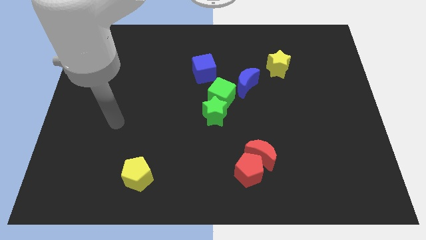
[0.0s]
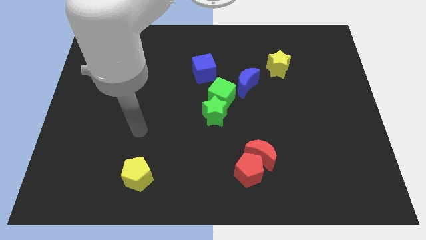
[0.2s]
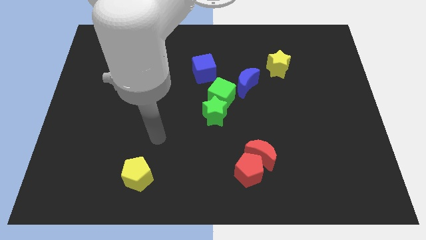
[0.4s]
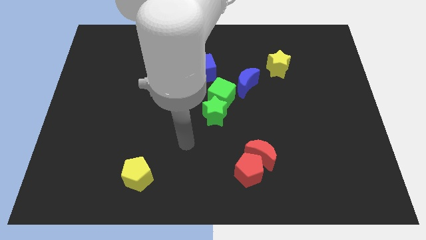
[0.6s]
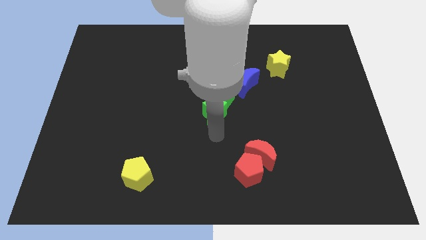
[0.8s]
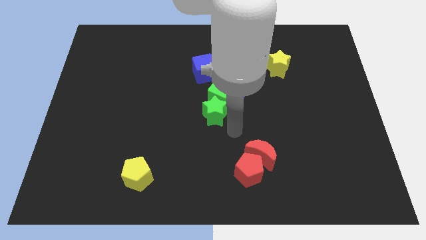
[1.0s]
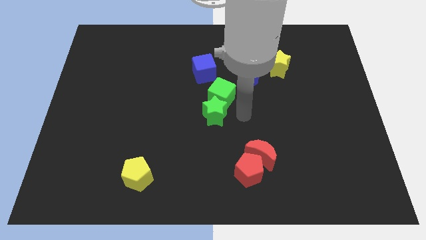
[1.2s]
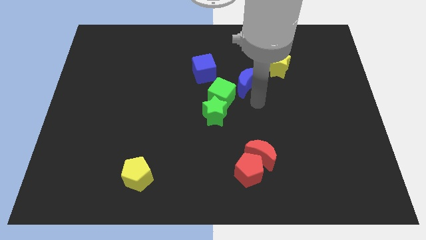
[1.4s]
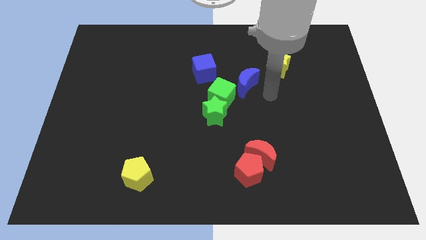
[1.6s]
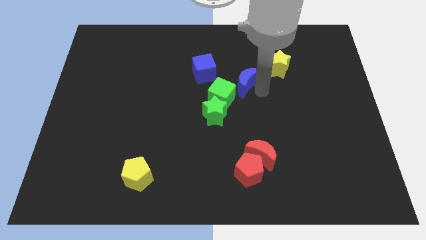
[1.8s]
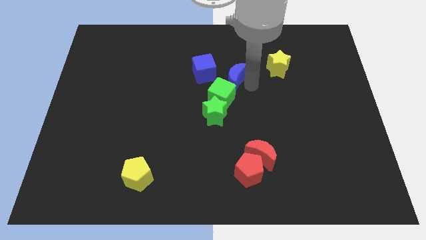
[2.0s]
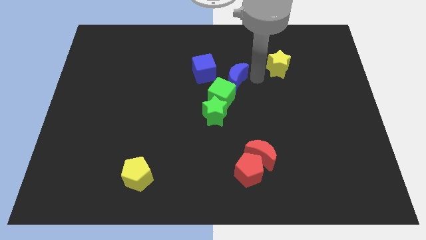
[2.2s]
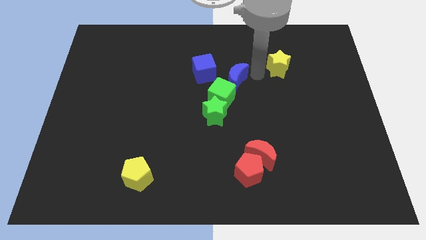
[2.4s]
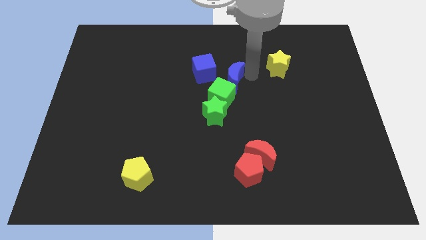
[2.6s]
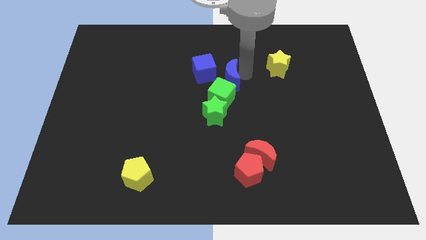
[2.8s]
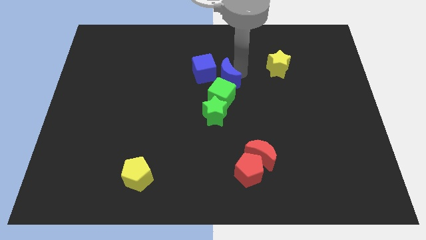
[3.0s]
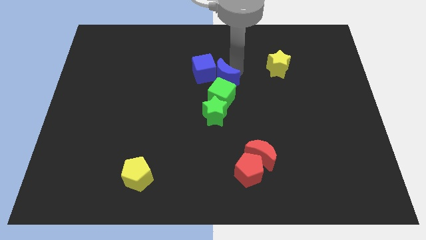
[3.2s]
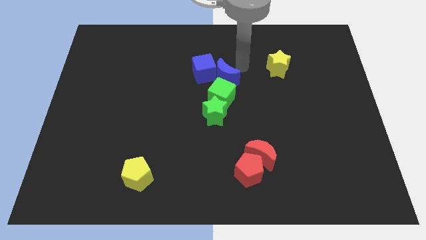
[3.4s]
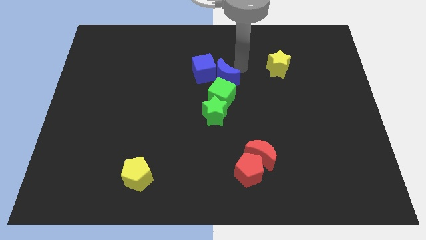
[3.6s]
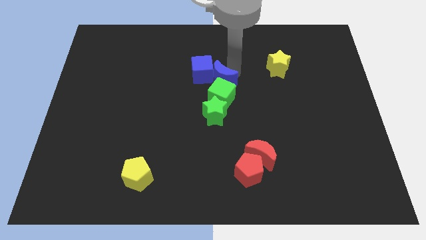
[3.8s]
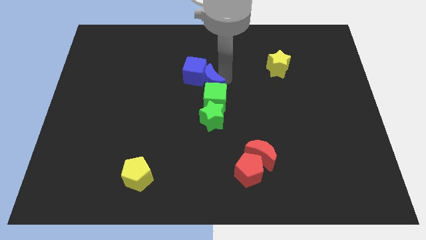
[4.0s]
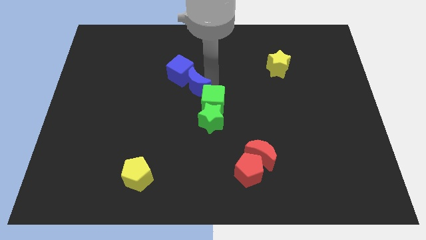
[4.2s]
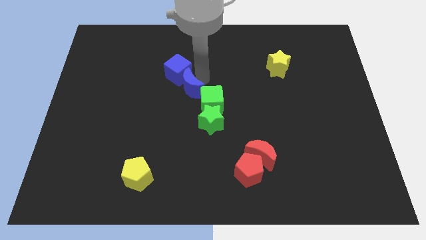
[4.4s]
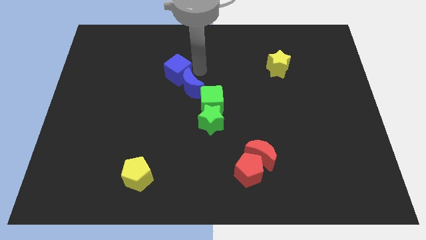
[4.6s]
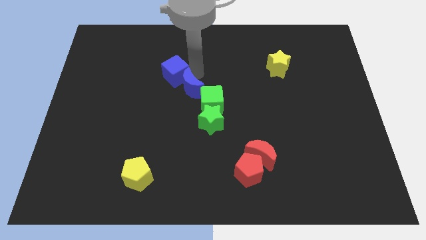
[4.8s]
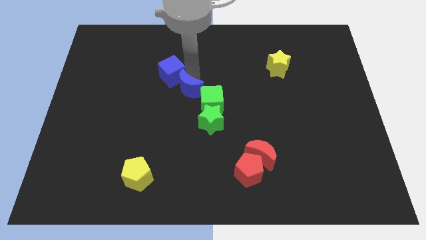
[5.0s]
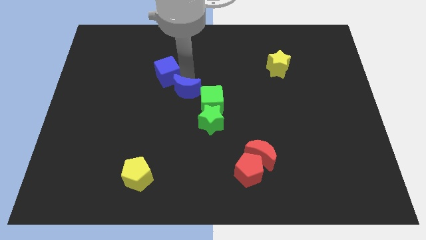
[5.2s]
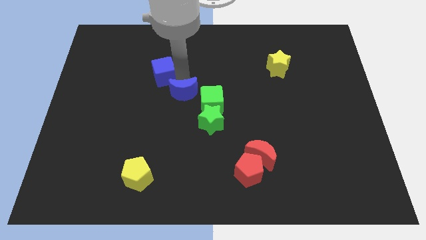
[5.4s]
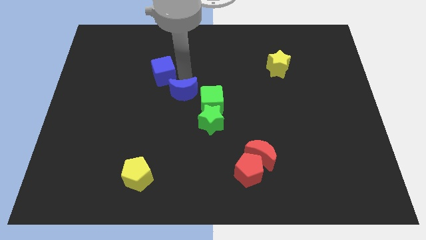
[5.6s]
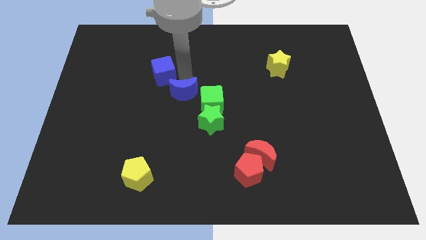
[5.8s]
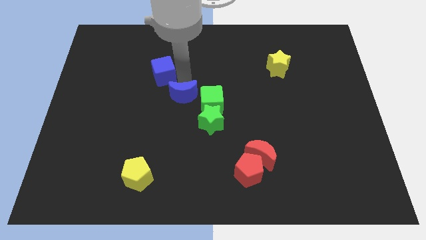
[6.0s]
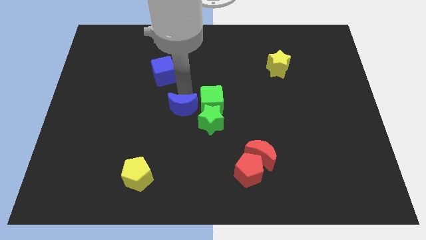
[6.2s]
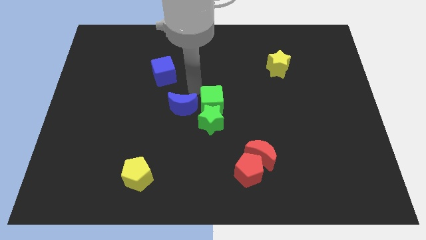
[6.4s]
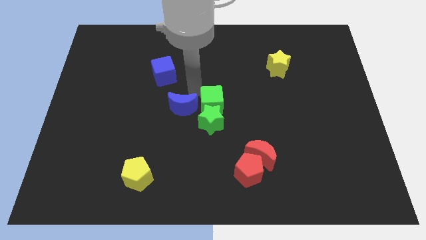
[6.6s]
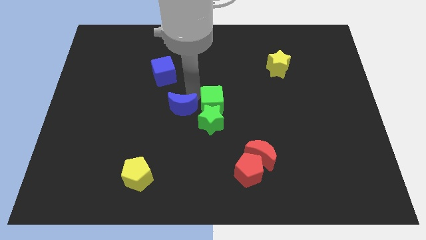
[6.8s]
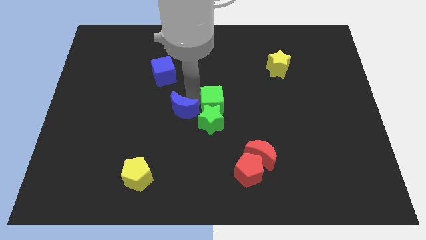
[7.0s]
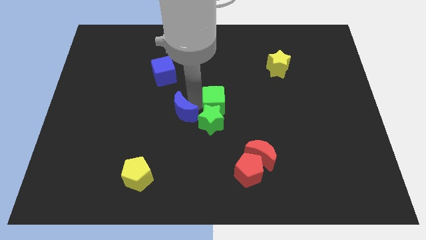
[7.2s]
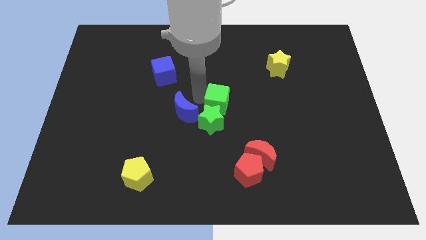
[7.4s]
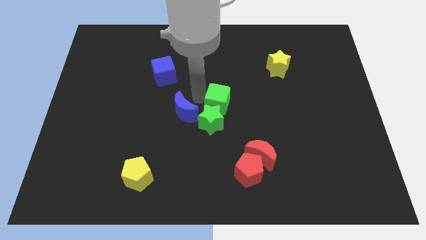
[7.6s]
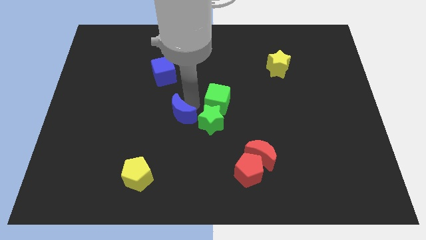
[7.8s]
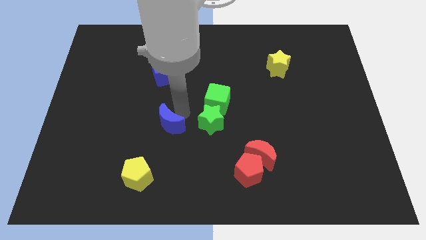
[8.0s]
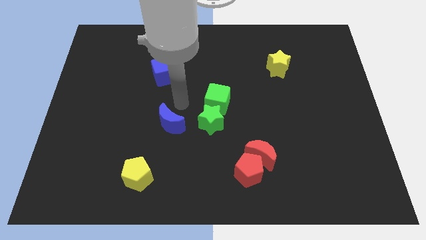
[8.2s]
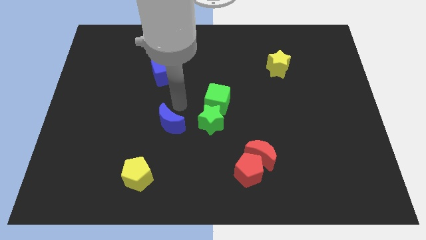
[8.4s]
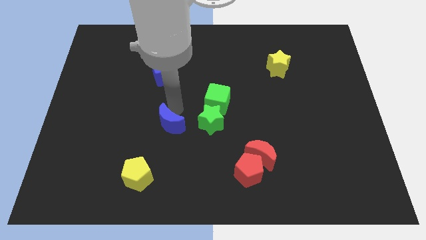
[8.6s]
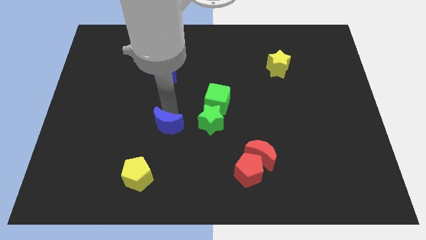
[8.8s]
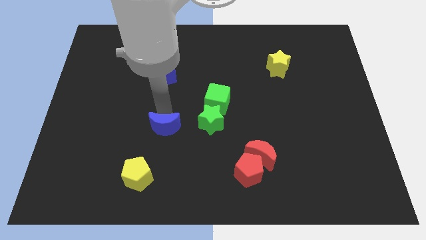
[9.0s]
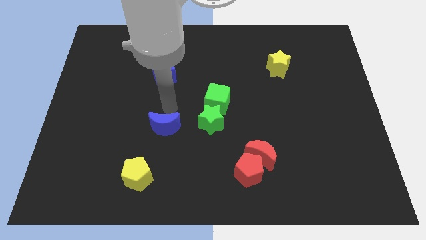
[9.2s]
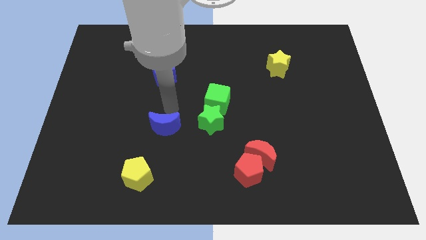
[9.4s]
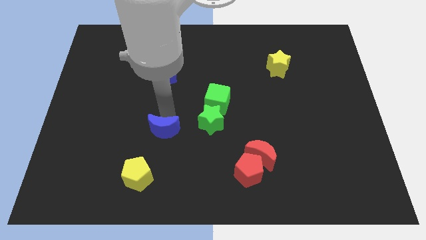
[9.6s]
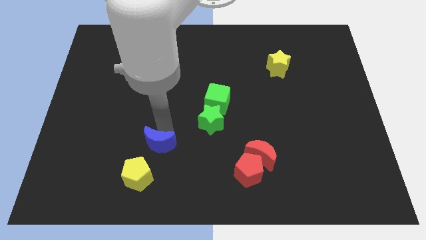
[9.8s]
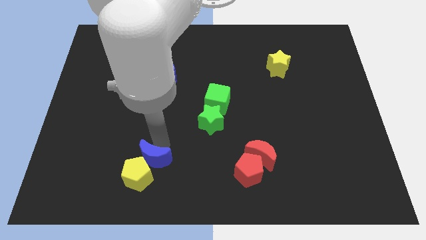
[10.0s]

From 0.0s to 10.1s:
move the blue moon next to the yellow pentagon

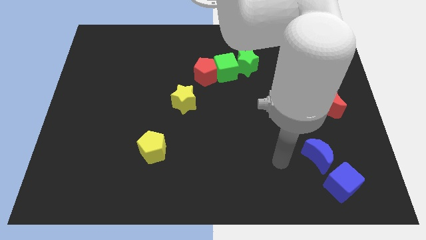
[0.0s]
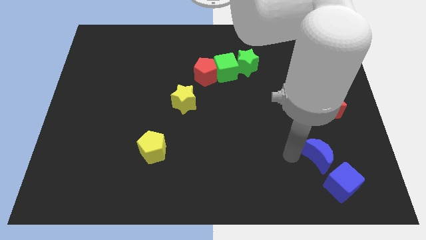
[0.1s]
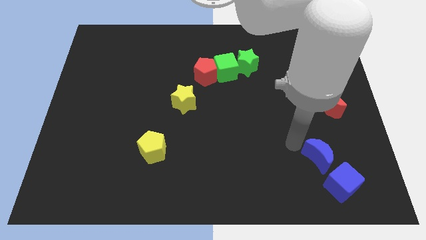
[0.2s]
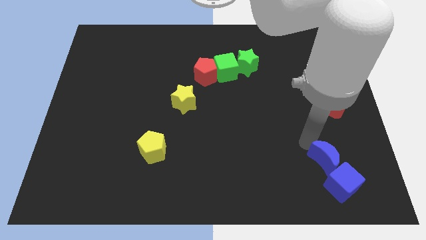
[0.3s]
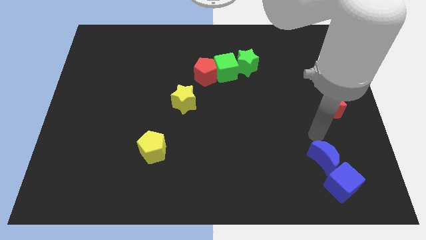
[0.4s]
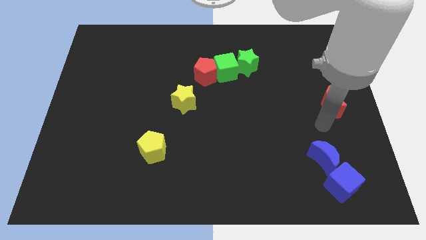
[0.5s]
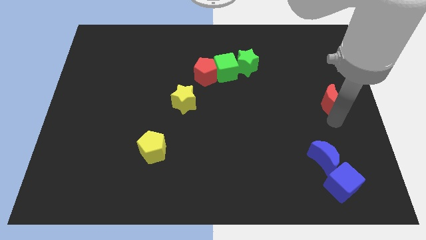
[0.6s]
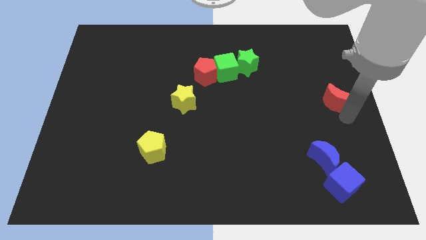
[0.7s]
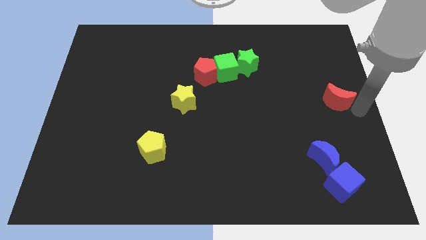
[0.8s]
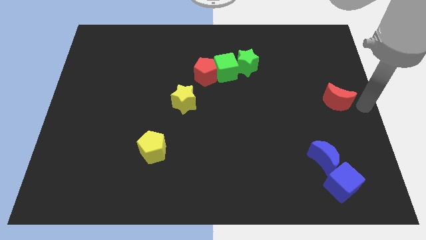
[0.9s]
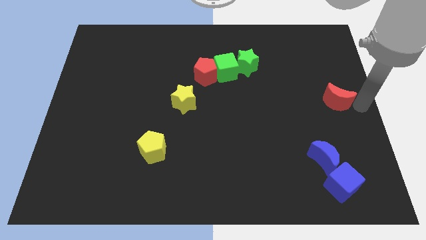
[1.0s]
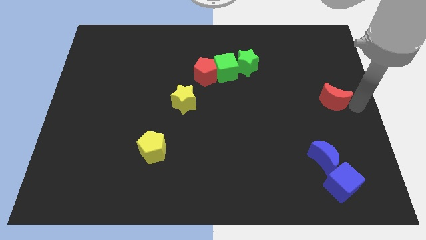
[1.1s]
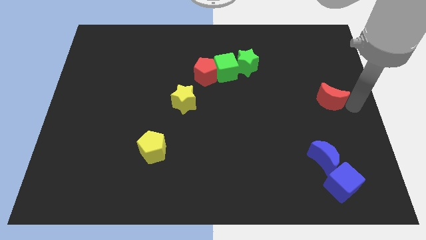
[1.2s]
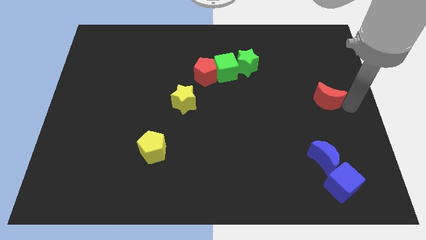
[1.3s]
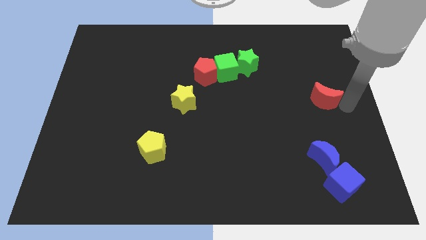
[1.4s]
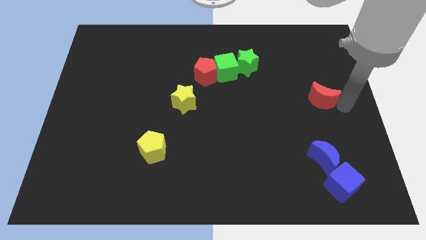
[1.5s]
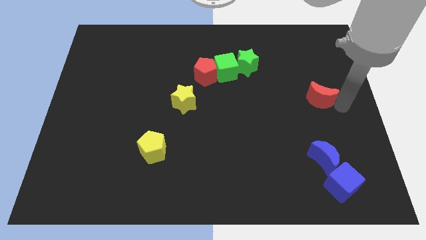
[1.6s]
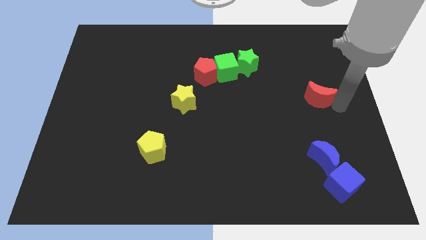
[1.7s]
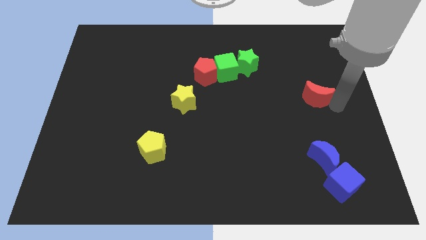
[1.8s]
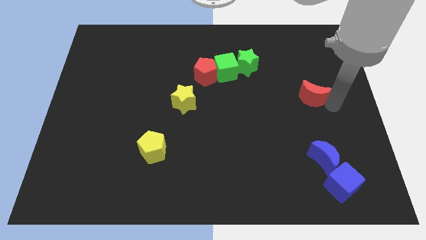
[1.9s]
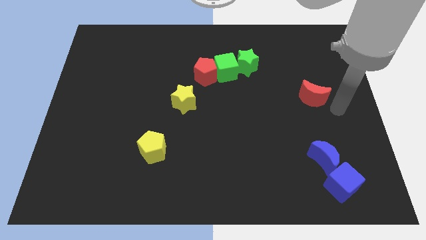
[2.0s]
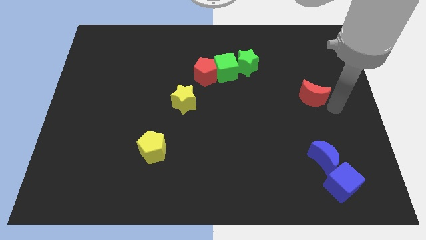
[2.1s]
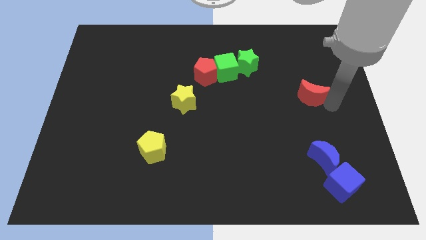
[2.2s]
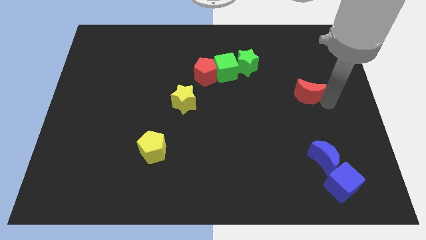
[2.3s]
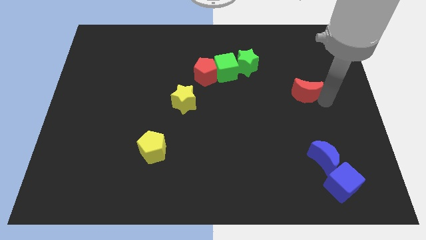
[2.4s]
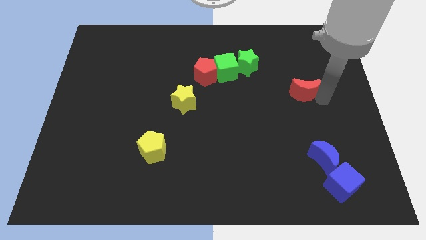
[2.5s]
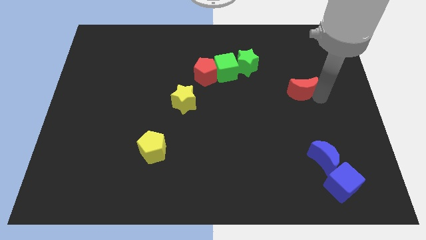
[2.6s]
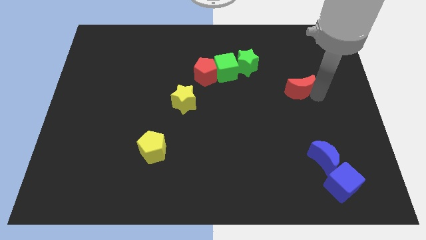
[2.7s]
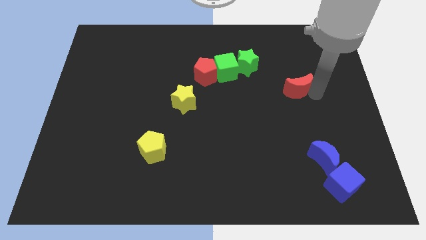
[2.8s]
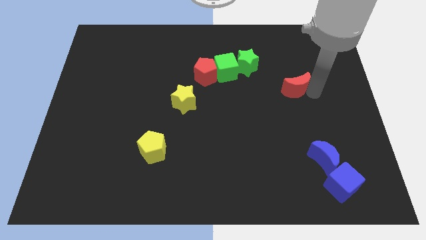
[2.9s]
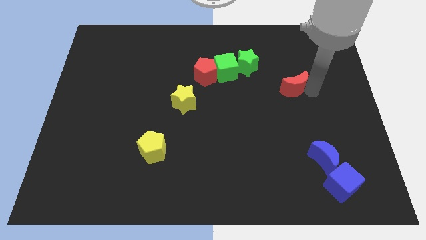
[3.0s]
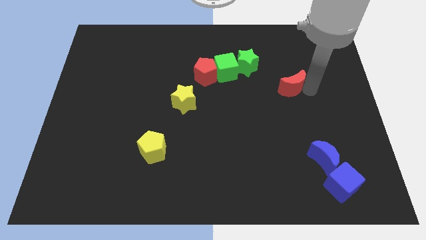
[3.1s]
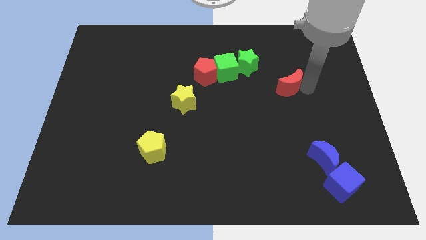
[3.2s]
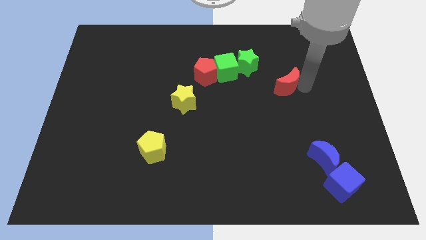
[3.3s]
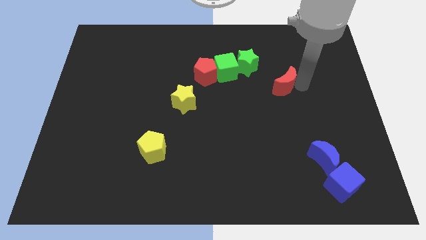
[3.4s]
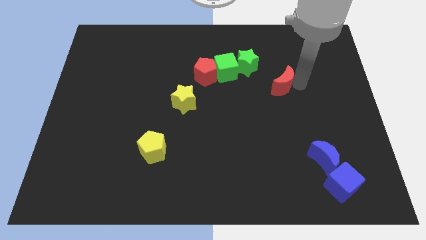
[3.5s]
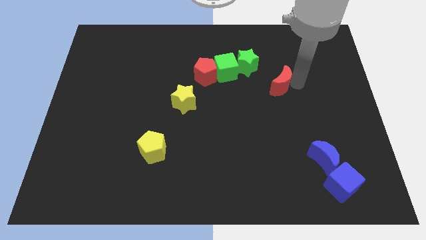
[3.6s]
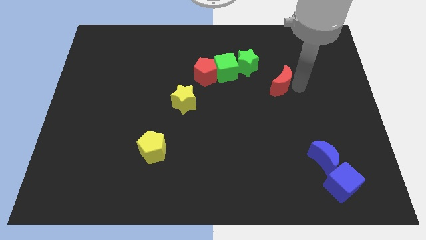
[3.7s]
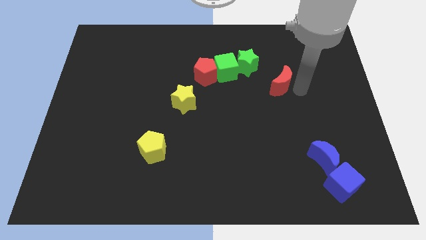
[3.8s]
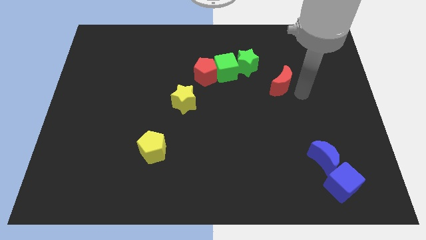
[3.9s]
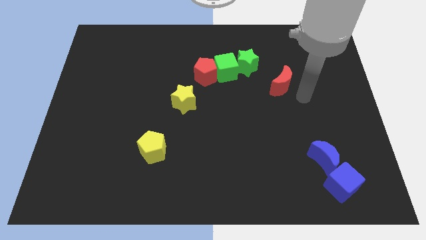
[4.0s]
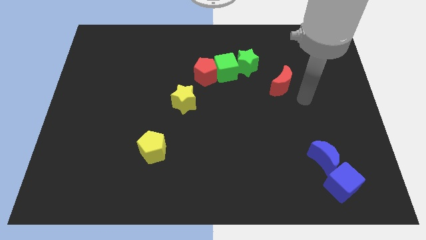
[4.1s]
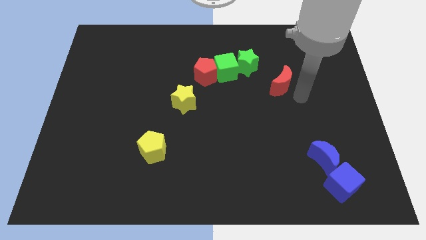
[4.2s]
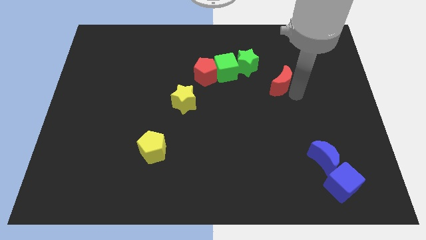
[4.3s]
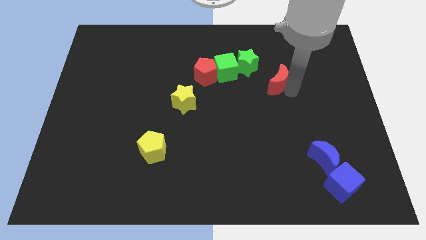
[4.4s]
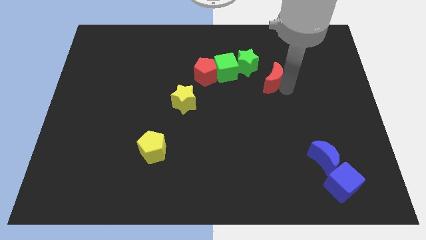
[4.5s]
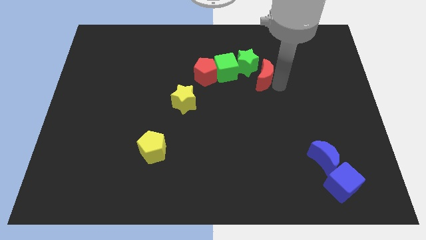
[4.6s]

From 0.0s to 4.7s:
slide the red moon next to the green star
